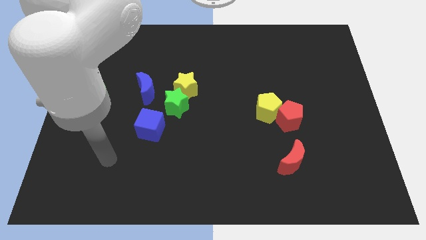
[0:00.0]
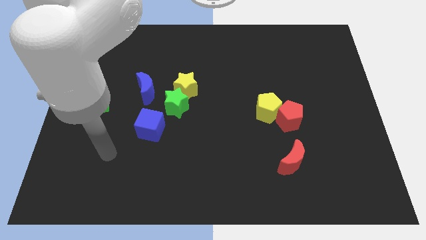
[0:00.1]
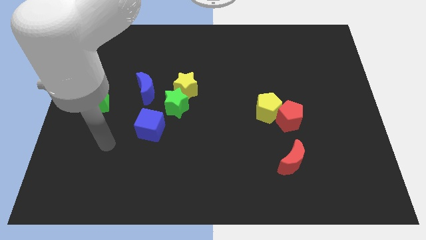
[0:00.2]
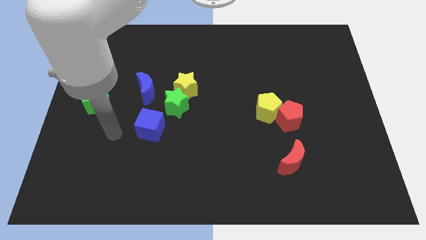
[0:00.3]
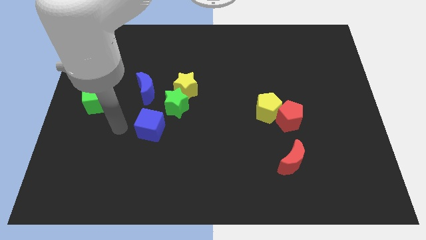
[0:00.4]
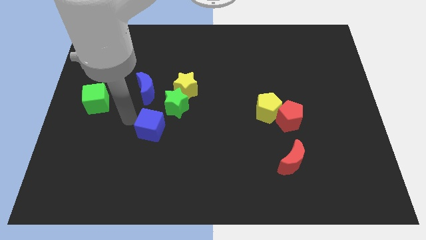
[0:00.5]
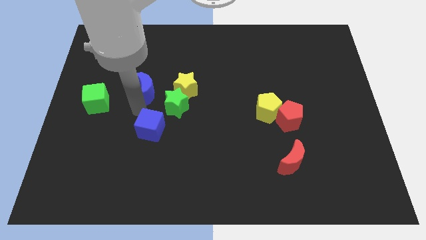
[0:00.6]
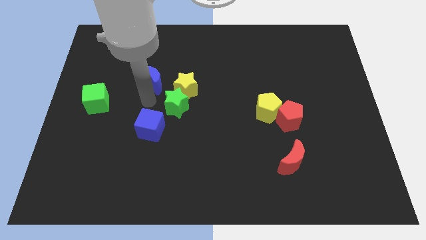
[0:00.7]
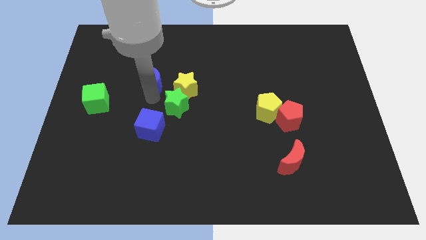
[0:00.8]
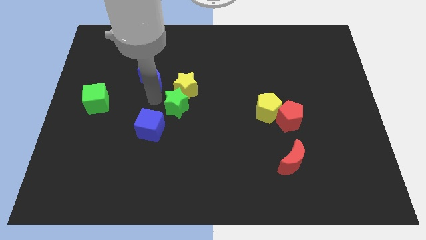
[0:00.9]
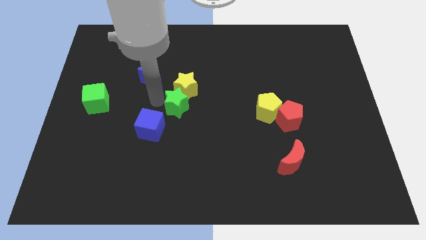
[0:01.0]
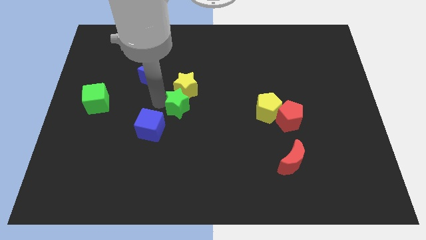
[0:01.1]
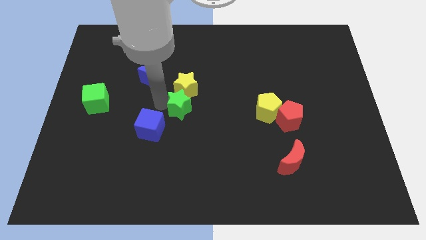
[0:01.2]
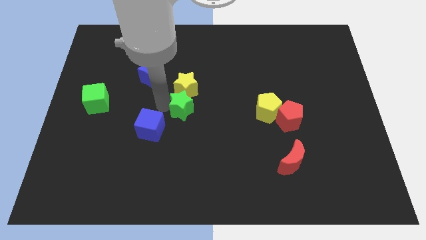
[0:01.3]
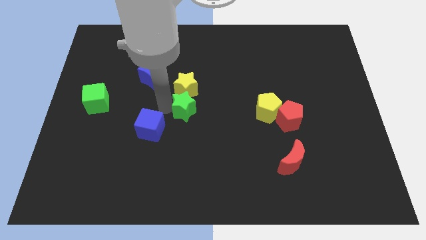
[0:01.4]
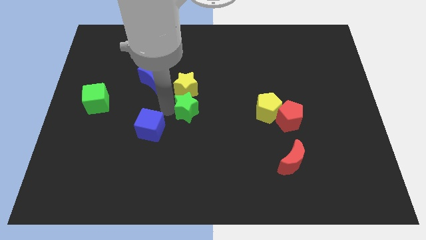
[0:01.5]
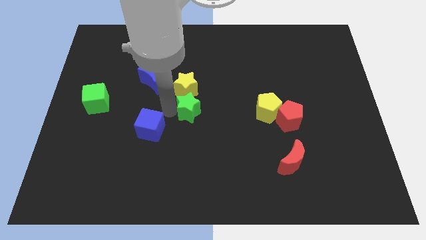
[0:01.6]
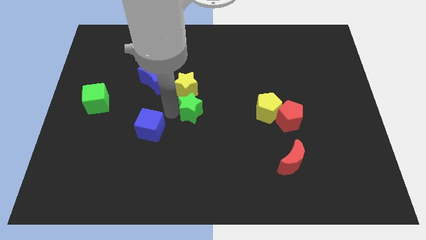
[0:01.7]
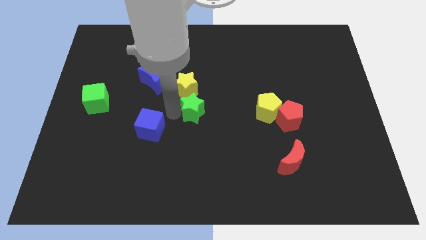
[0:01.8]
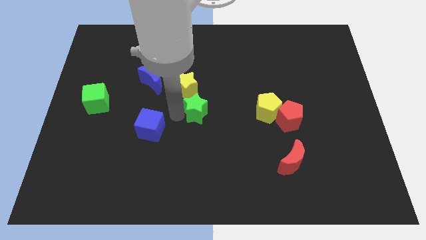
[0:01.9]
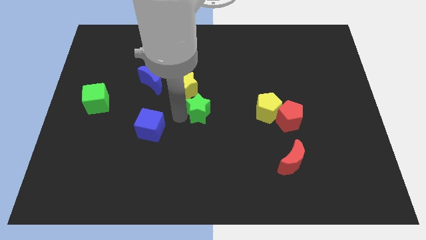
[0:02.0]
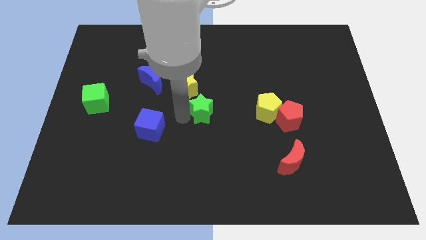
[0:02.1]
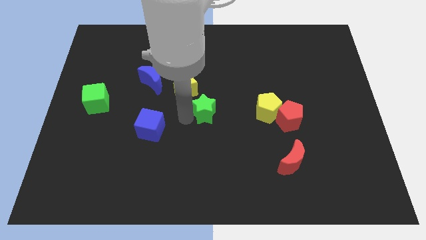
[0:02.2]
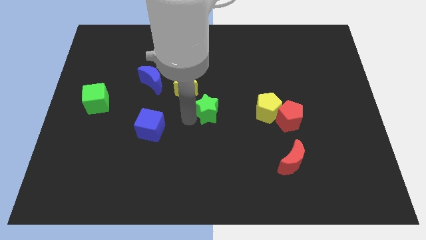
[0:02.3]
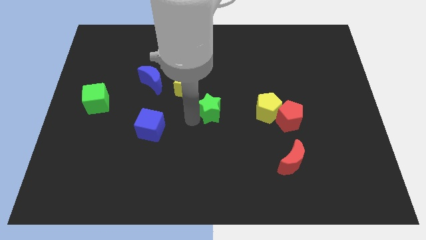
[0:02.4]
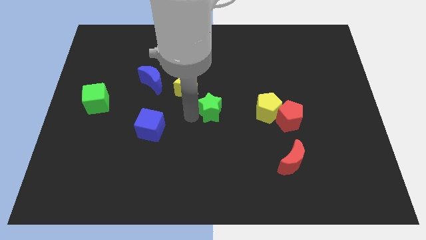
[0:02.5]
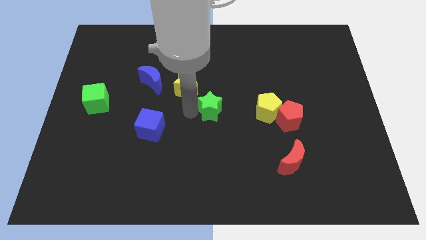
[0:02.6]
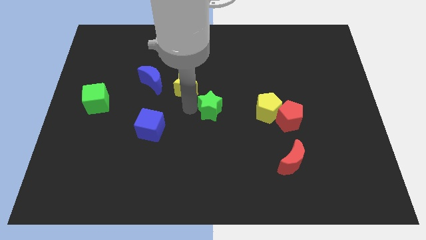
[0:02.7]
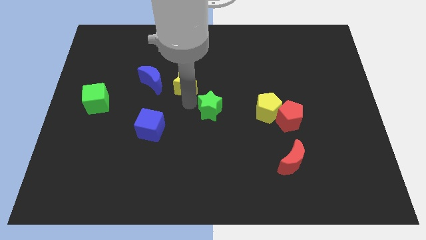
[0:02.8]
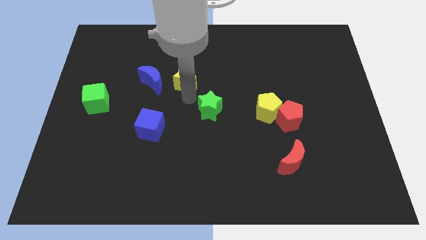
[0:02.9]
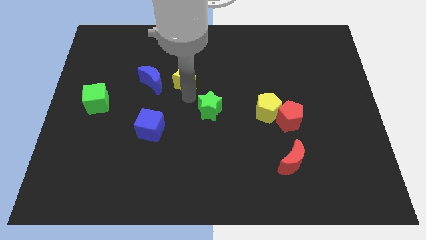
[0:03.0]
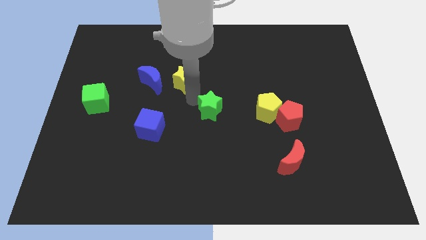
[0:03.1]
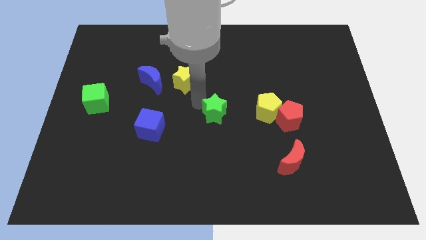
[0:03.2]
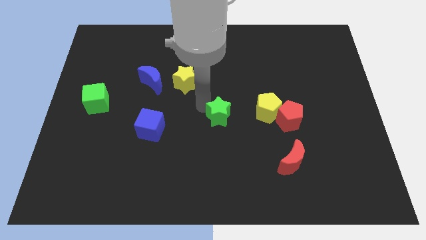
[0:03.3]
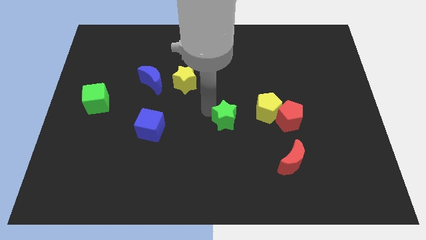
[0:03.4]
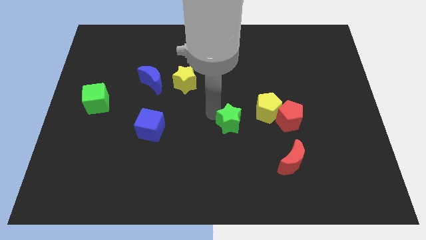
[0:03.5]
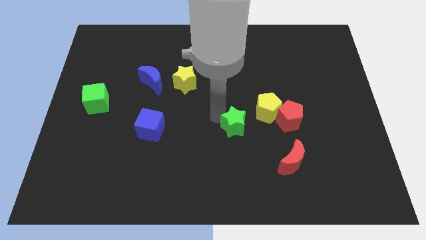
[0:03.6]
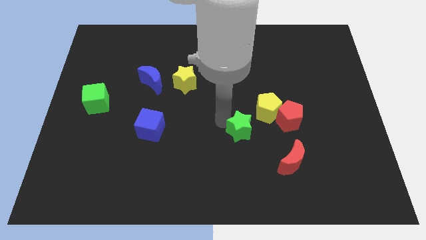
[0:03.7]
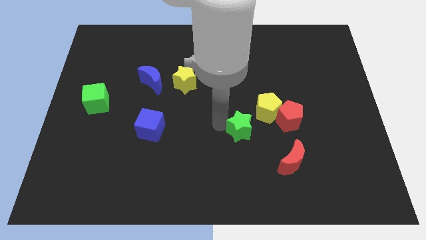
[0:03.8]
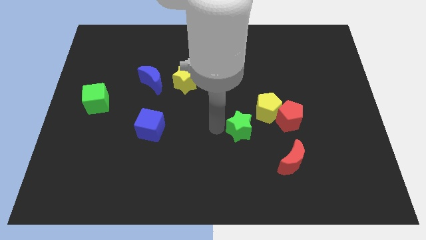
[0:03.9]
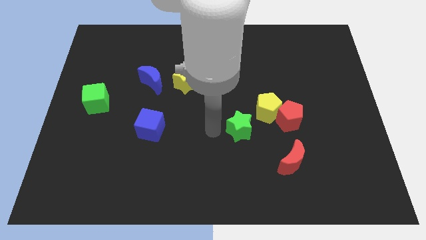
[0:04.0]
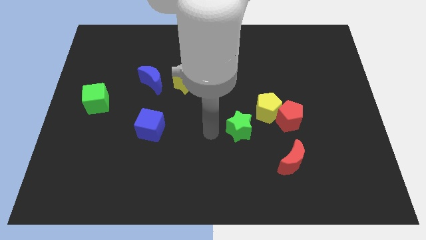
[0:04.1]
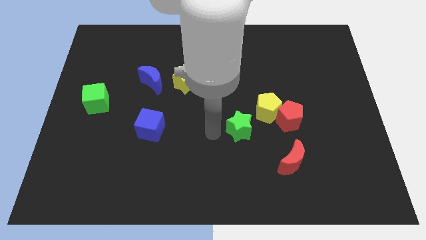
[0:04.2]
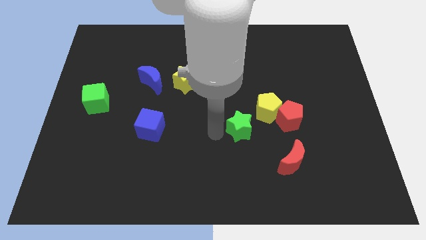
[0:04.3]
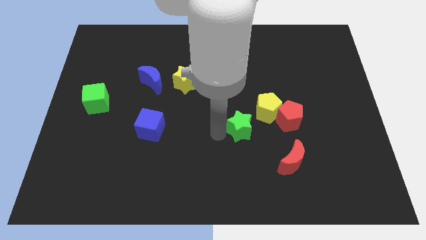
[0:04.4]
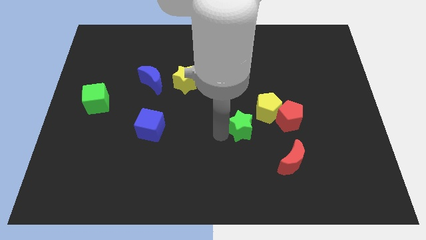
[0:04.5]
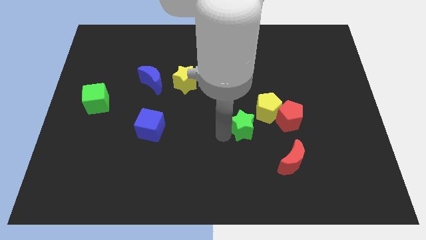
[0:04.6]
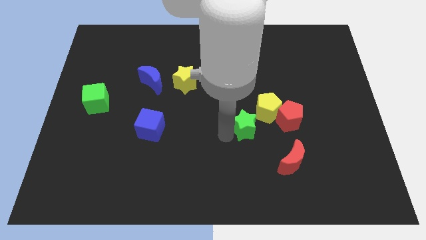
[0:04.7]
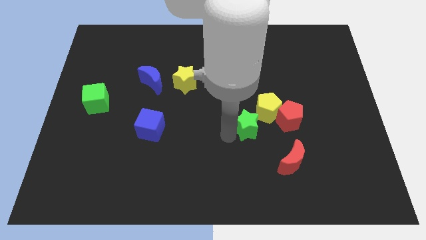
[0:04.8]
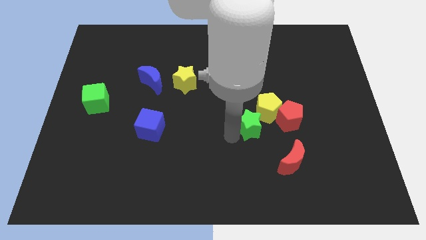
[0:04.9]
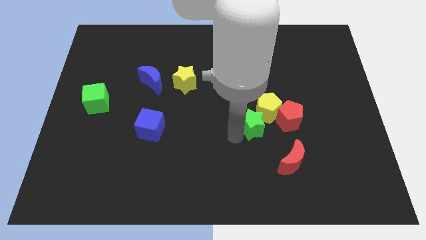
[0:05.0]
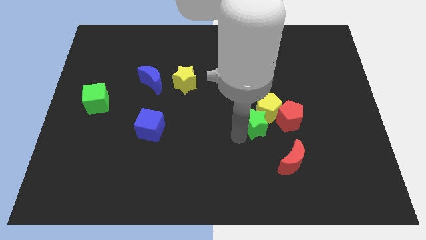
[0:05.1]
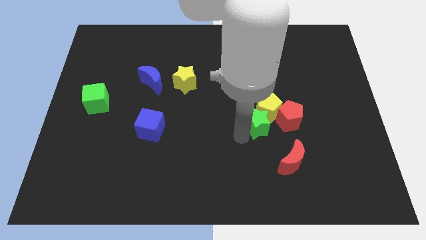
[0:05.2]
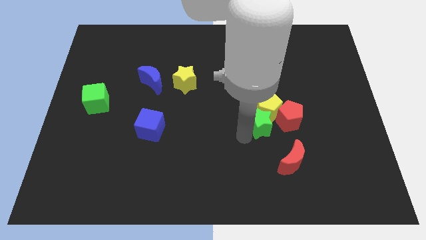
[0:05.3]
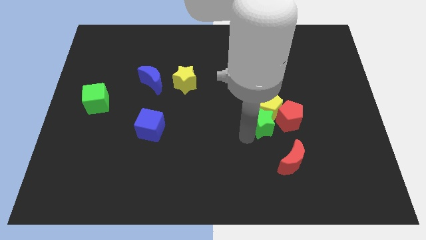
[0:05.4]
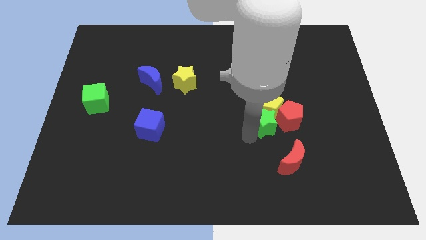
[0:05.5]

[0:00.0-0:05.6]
move the green star next to the red pentagon

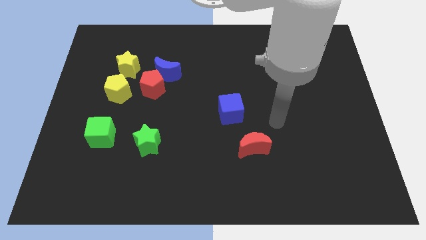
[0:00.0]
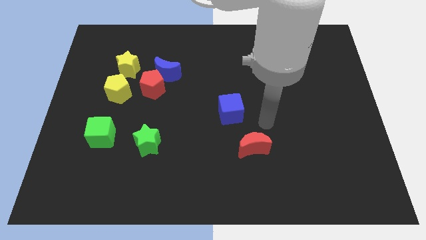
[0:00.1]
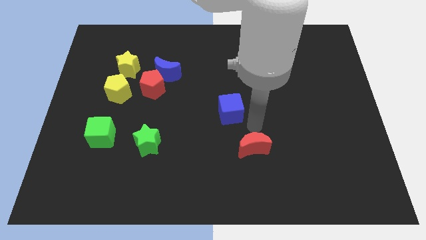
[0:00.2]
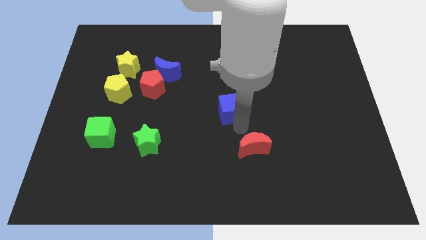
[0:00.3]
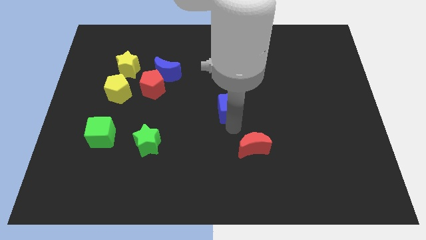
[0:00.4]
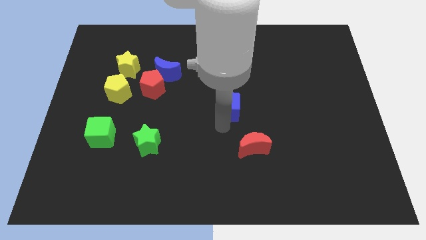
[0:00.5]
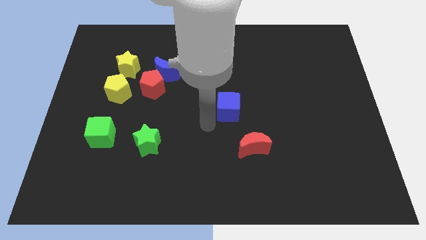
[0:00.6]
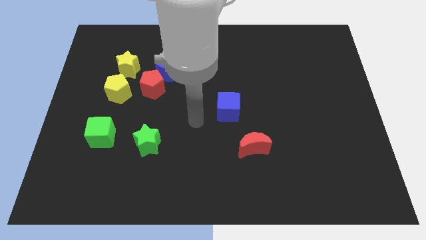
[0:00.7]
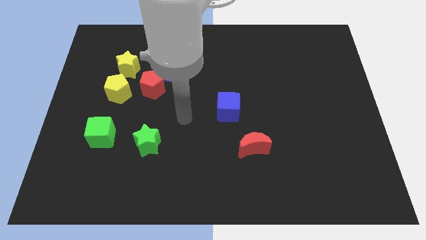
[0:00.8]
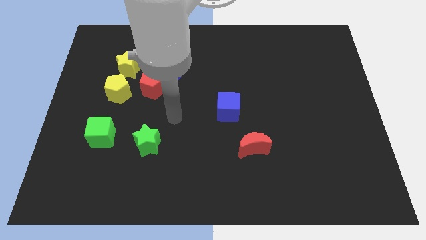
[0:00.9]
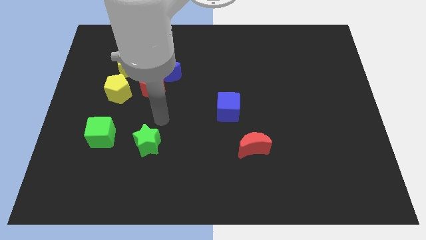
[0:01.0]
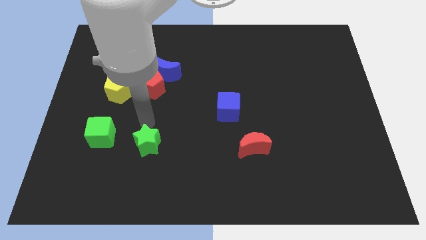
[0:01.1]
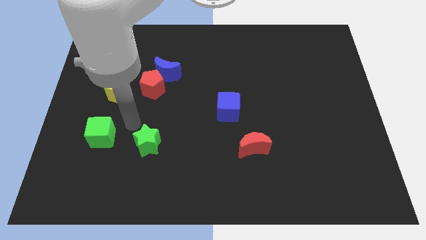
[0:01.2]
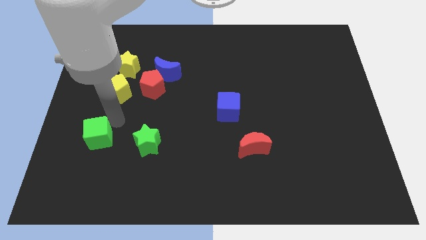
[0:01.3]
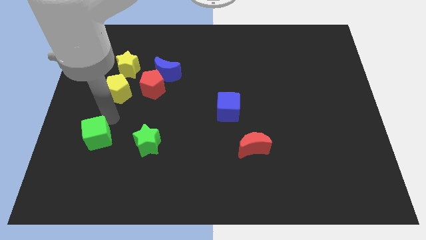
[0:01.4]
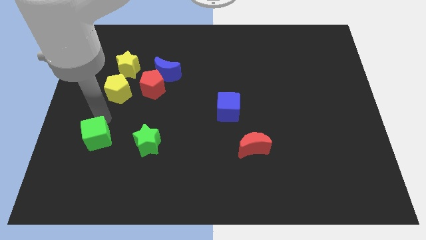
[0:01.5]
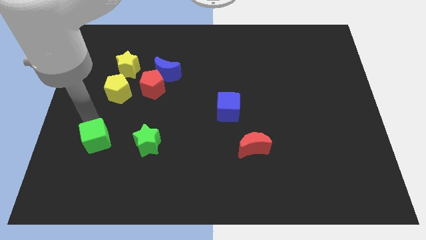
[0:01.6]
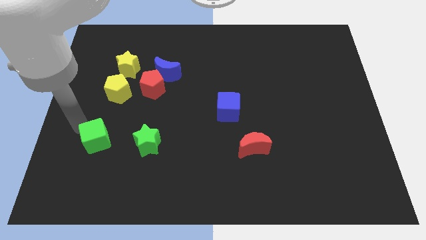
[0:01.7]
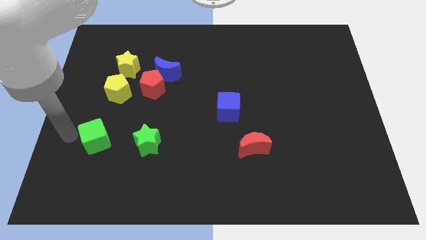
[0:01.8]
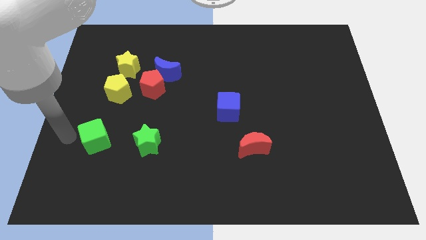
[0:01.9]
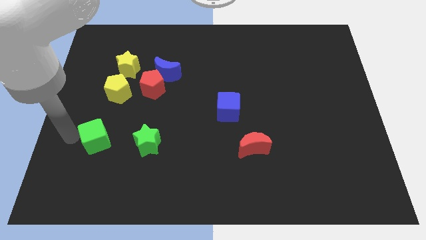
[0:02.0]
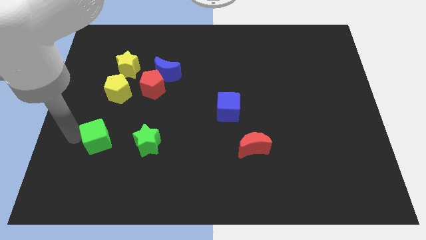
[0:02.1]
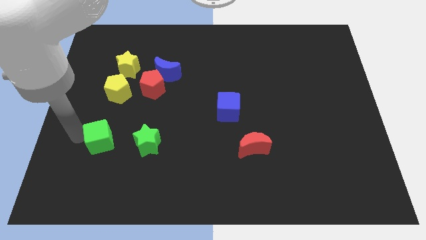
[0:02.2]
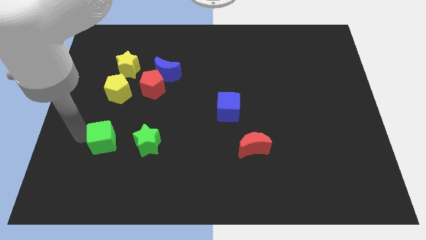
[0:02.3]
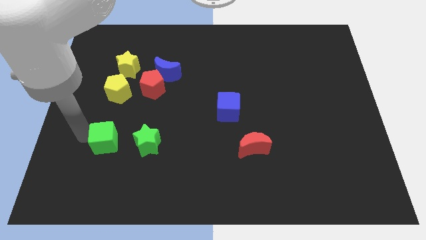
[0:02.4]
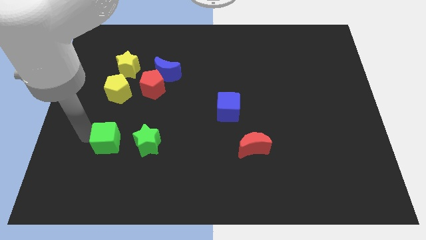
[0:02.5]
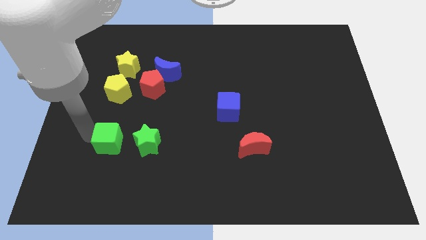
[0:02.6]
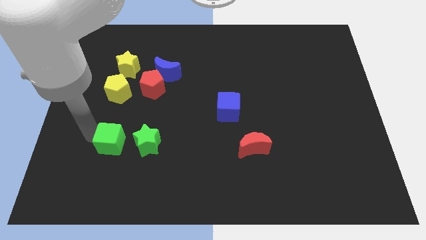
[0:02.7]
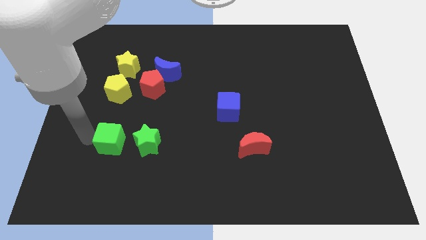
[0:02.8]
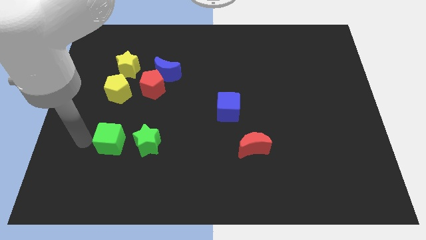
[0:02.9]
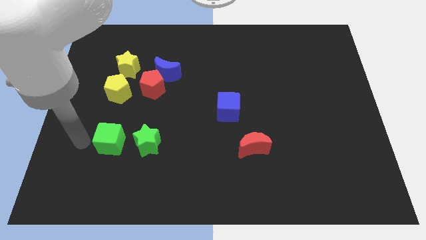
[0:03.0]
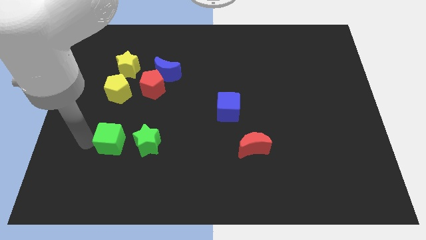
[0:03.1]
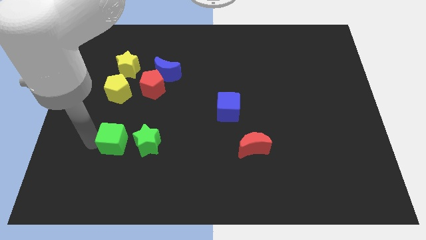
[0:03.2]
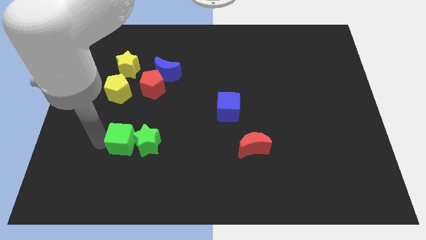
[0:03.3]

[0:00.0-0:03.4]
push the green cube towards the green star
